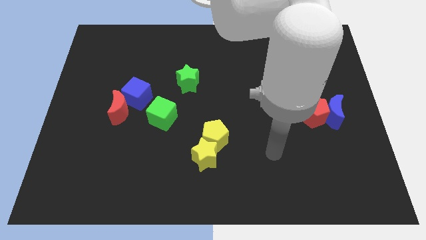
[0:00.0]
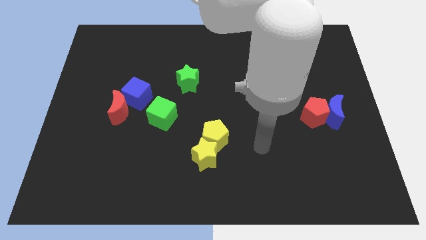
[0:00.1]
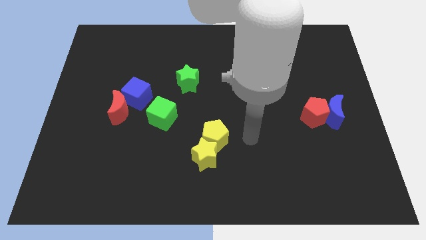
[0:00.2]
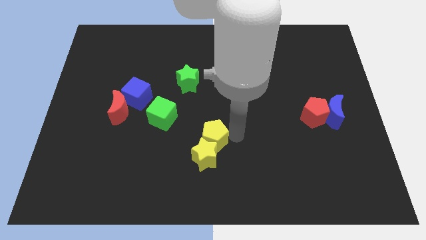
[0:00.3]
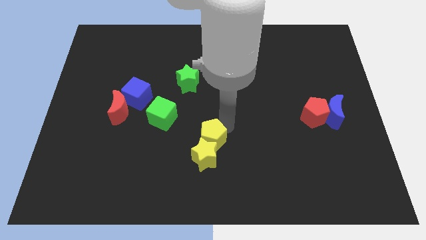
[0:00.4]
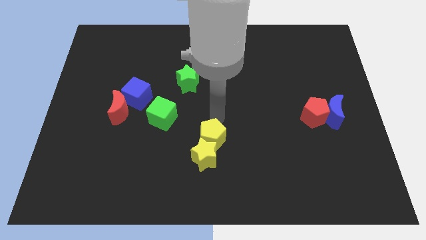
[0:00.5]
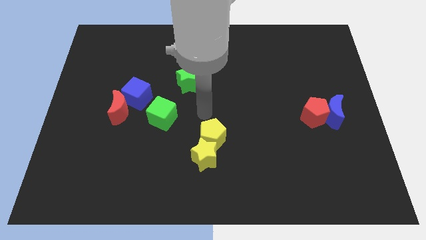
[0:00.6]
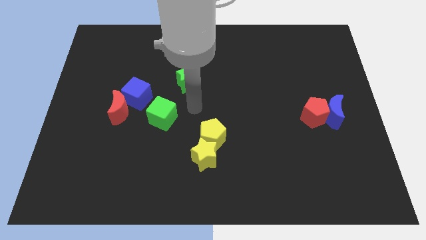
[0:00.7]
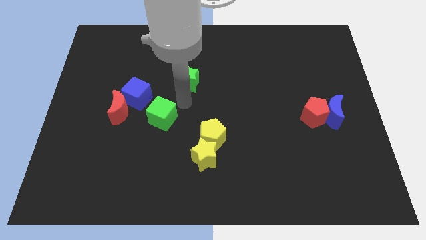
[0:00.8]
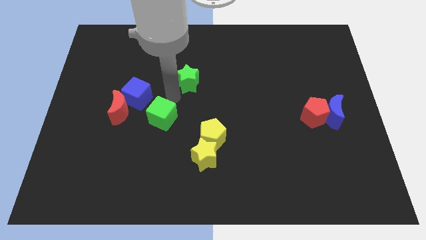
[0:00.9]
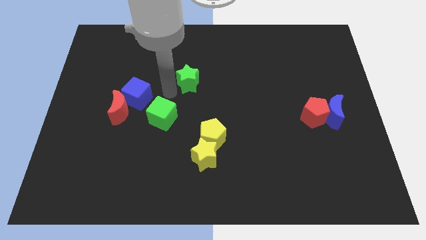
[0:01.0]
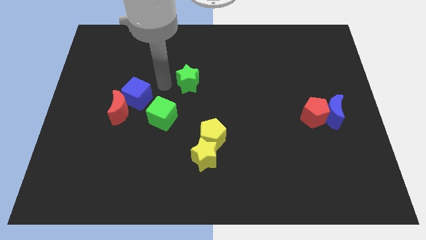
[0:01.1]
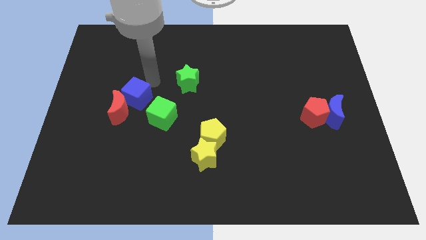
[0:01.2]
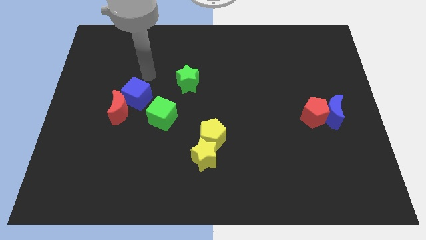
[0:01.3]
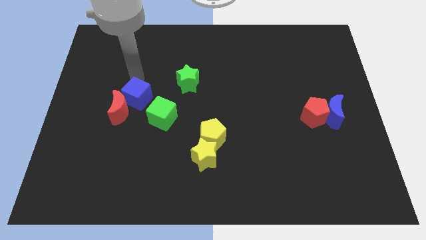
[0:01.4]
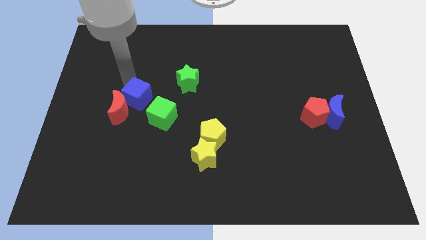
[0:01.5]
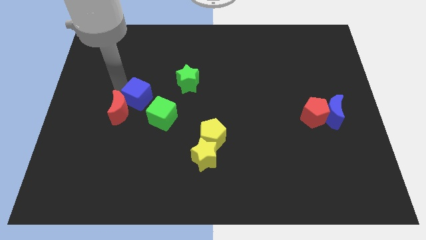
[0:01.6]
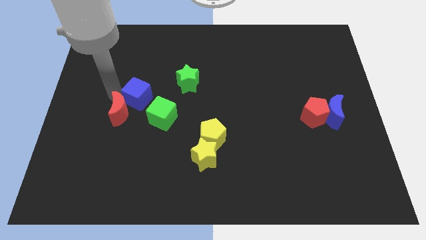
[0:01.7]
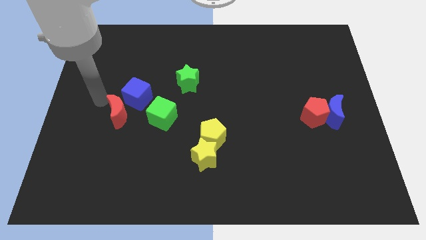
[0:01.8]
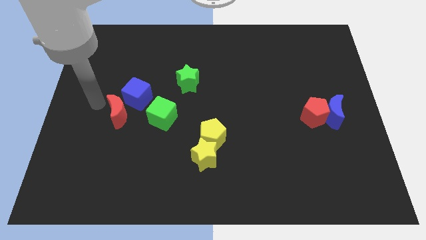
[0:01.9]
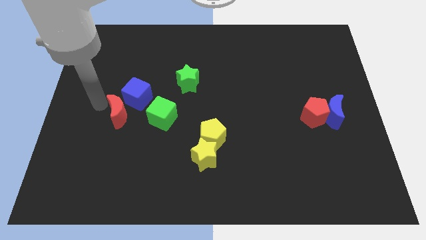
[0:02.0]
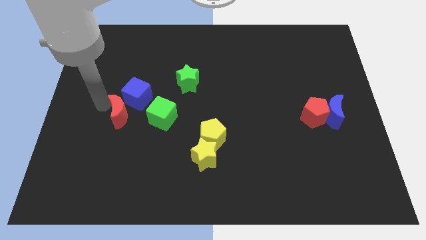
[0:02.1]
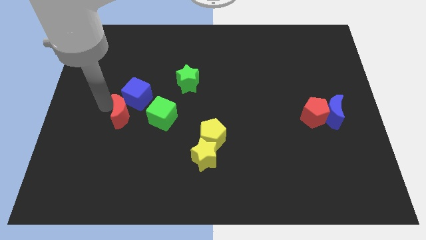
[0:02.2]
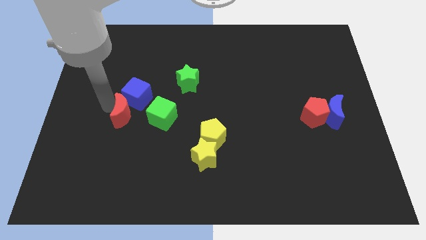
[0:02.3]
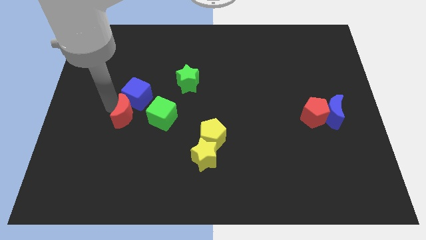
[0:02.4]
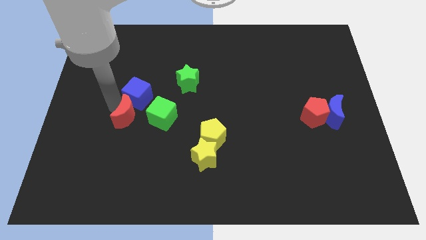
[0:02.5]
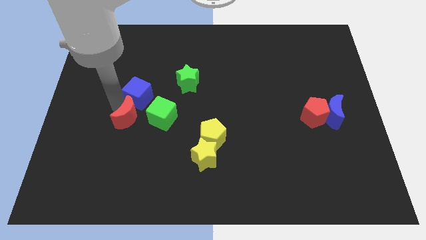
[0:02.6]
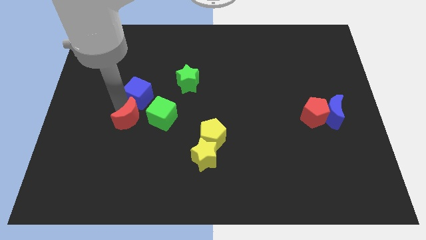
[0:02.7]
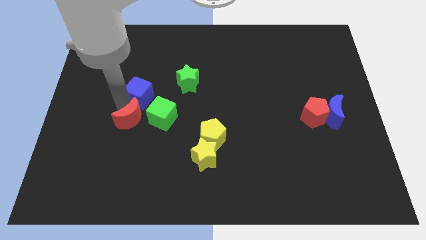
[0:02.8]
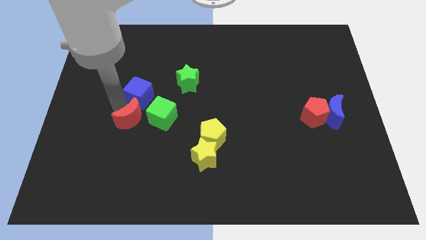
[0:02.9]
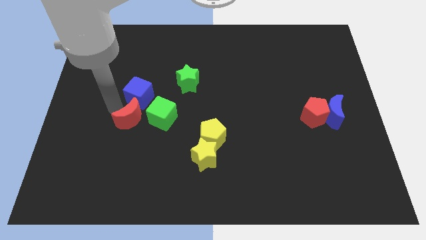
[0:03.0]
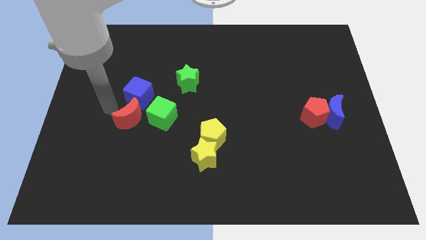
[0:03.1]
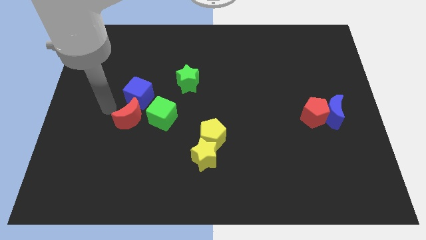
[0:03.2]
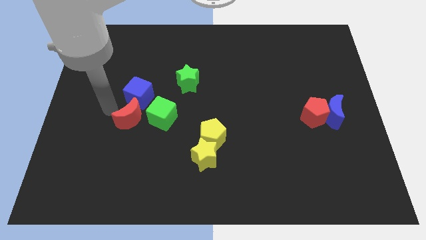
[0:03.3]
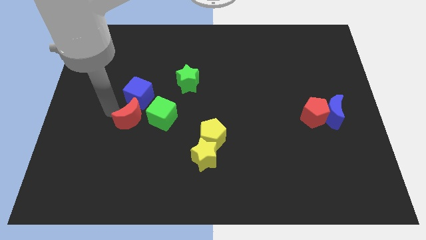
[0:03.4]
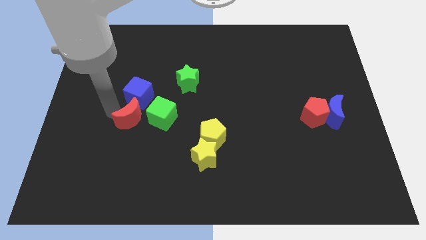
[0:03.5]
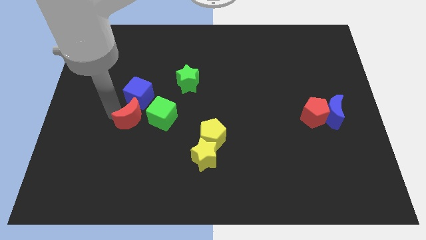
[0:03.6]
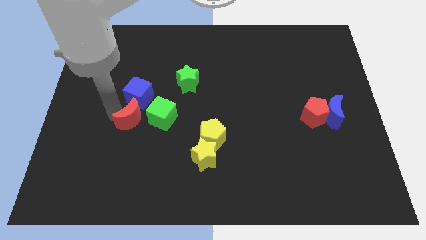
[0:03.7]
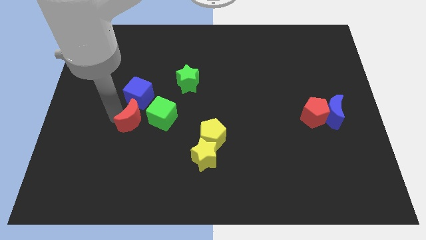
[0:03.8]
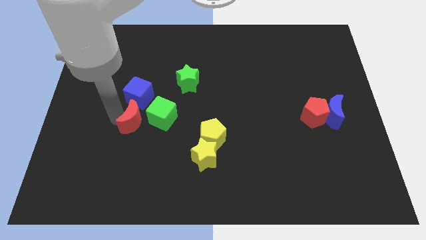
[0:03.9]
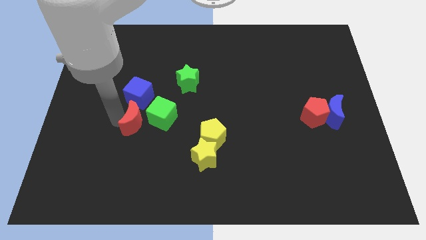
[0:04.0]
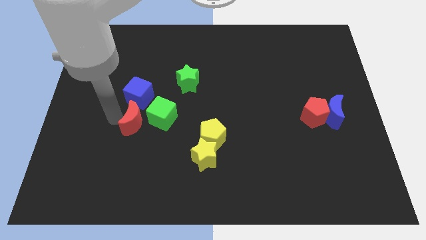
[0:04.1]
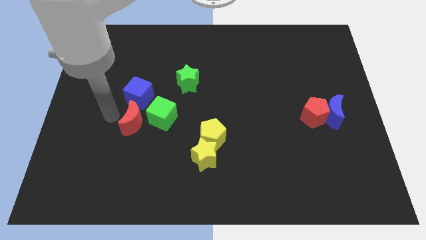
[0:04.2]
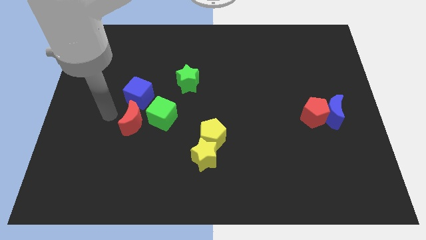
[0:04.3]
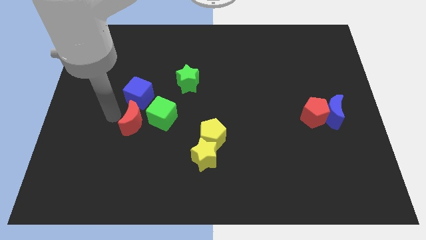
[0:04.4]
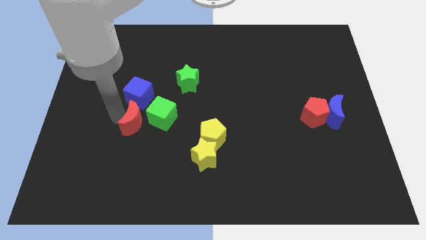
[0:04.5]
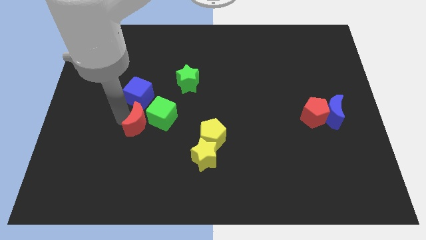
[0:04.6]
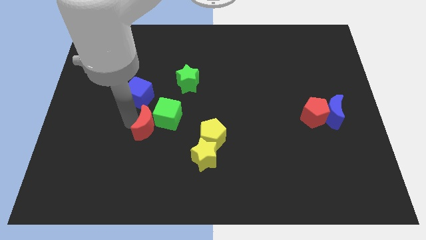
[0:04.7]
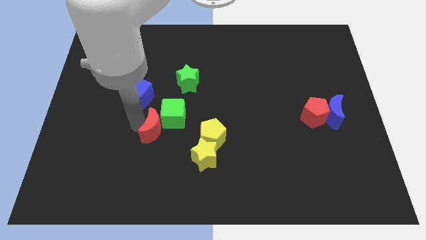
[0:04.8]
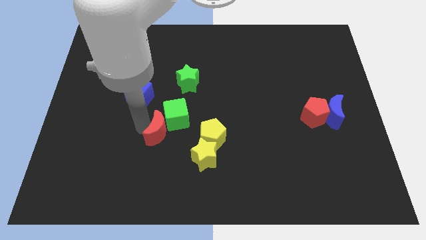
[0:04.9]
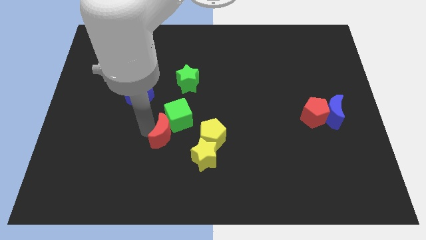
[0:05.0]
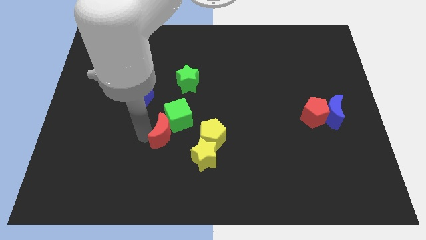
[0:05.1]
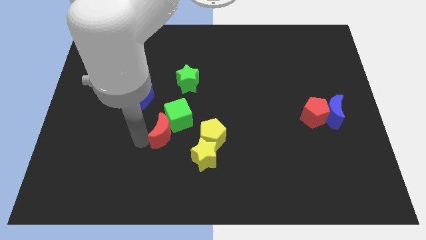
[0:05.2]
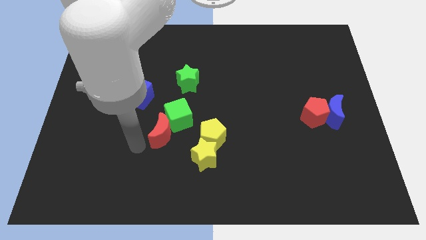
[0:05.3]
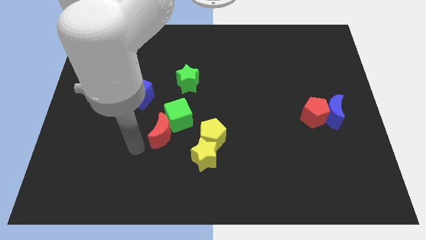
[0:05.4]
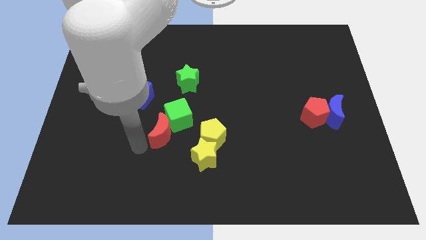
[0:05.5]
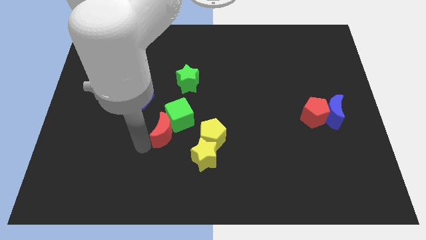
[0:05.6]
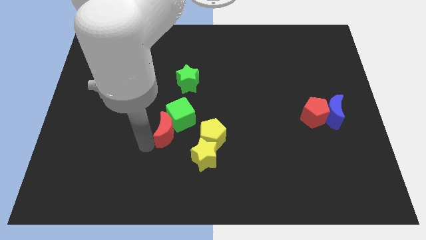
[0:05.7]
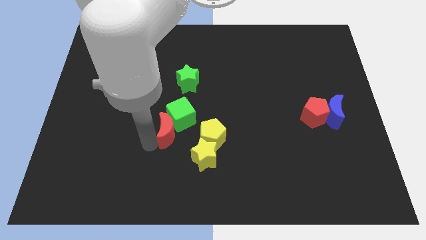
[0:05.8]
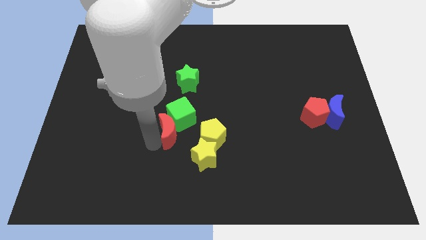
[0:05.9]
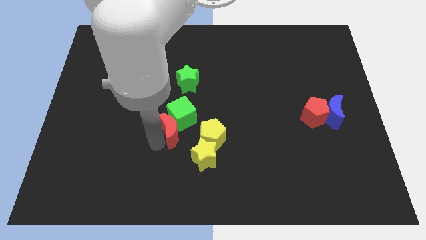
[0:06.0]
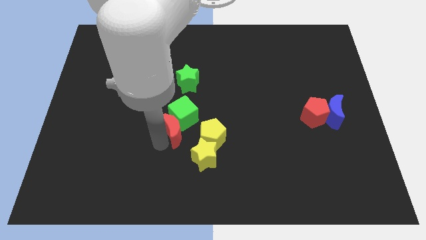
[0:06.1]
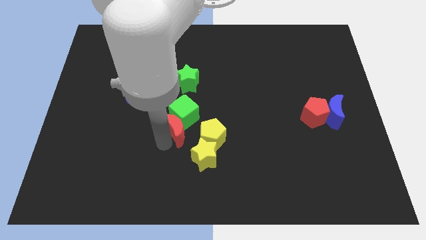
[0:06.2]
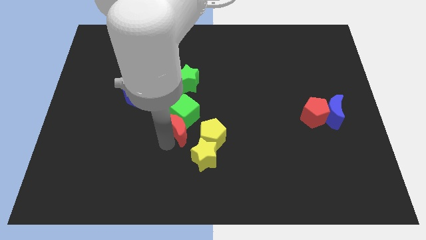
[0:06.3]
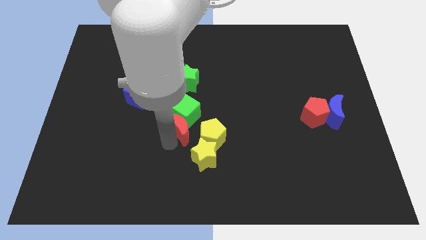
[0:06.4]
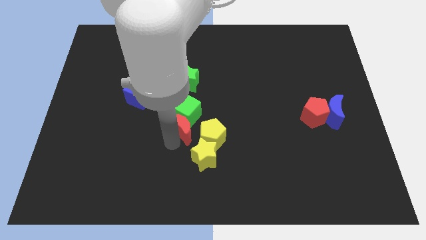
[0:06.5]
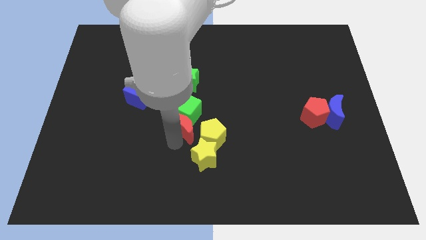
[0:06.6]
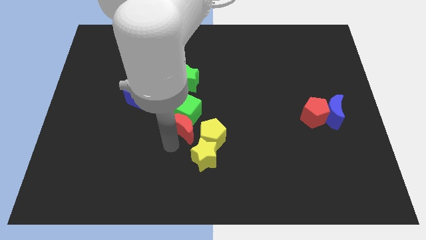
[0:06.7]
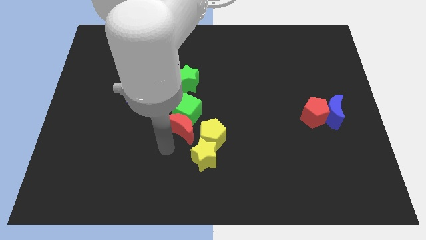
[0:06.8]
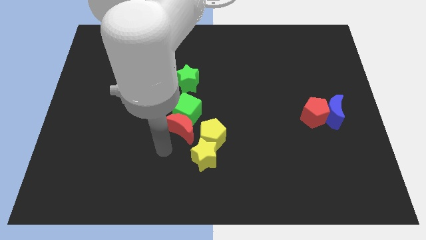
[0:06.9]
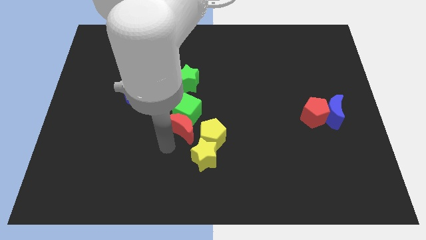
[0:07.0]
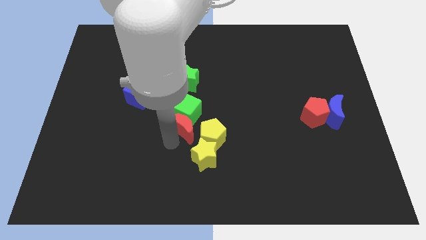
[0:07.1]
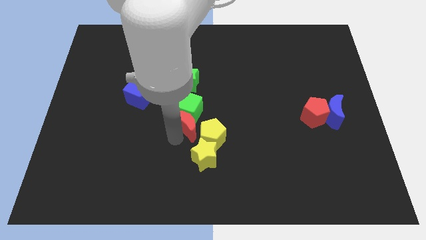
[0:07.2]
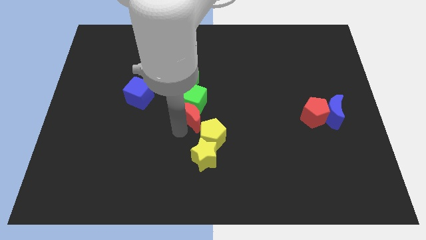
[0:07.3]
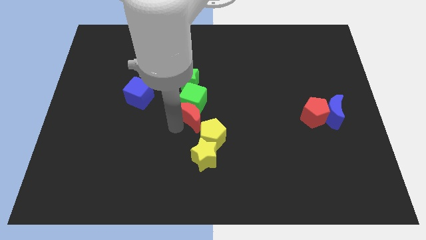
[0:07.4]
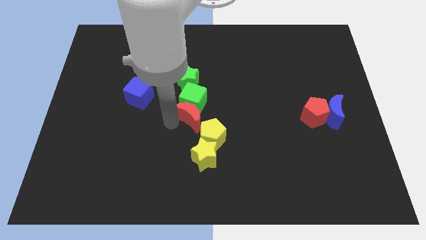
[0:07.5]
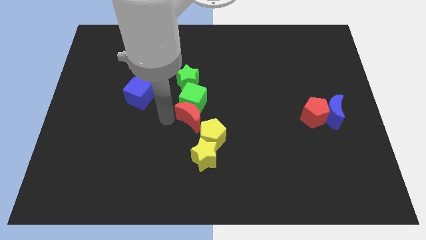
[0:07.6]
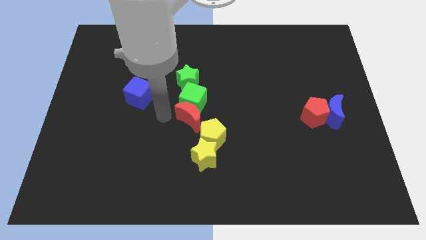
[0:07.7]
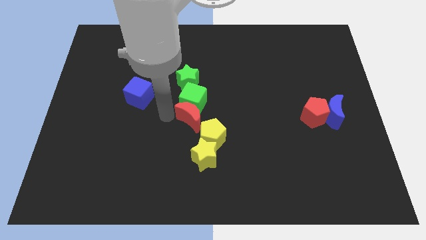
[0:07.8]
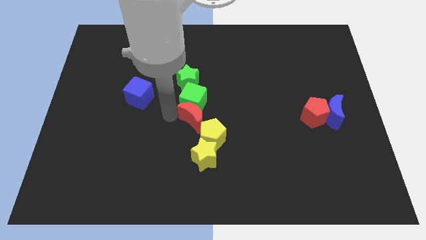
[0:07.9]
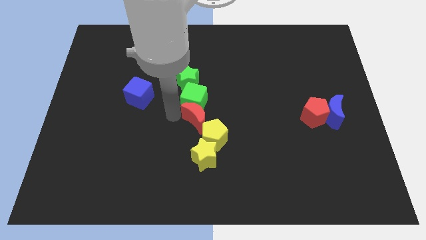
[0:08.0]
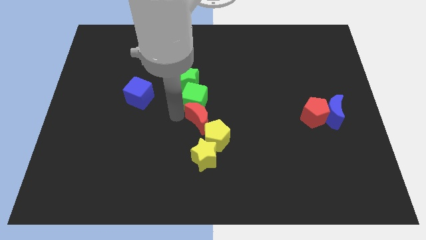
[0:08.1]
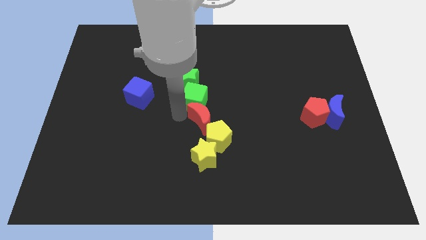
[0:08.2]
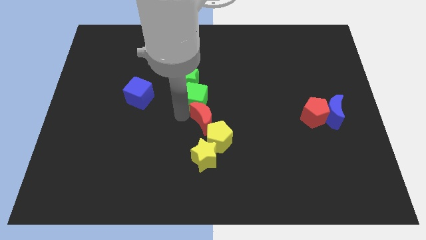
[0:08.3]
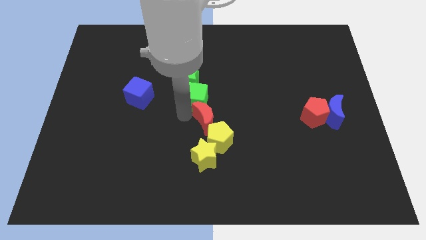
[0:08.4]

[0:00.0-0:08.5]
push the red moon right
